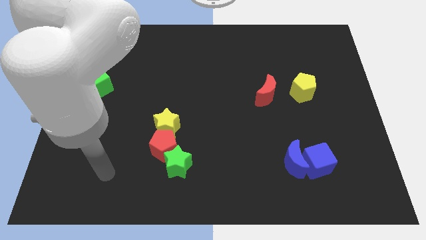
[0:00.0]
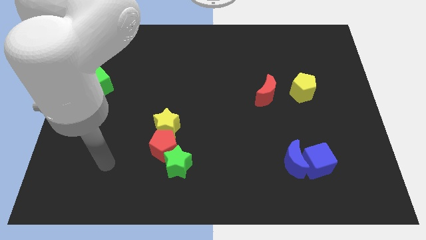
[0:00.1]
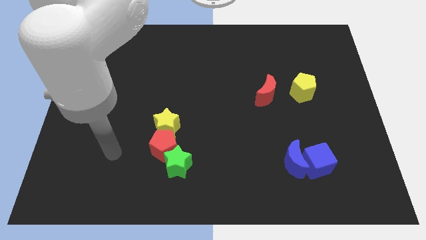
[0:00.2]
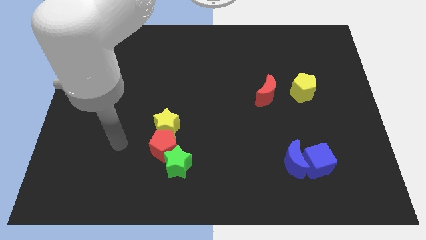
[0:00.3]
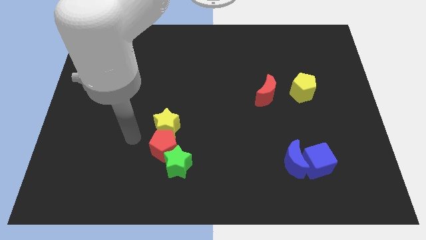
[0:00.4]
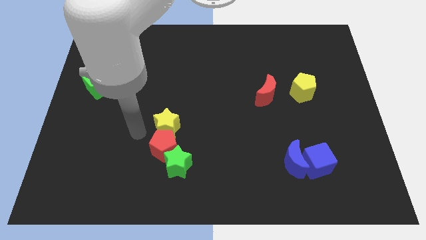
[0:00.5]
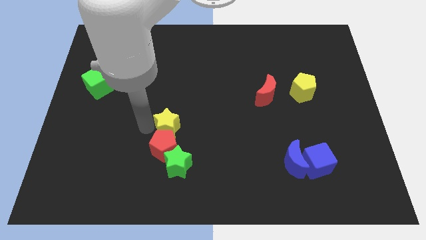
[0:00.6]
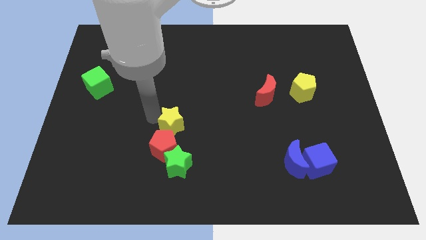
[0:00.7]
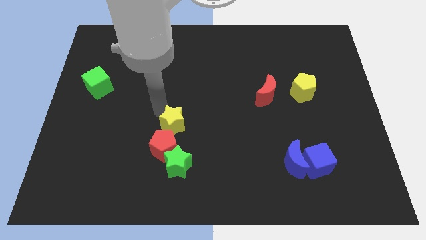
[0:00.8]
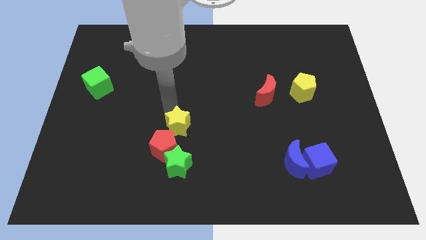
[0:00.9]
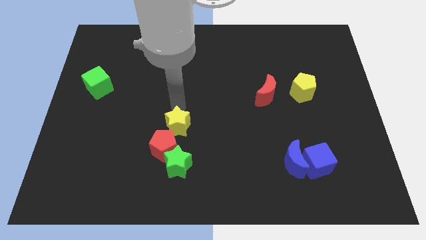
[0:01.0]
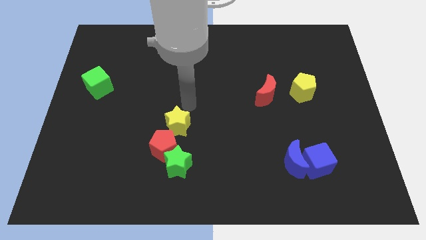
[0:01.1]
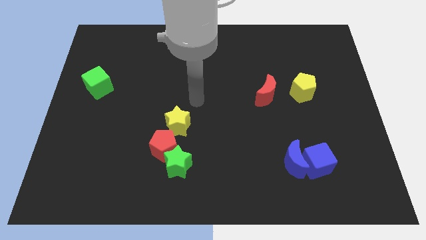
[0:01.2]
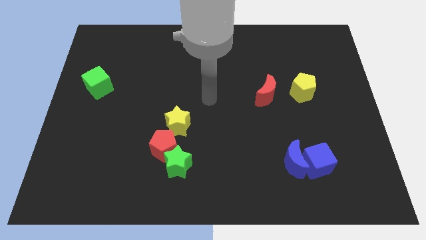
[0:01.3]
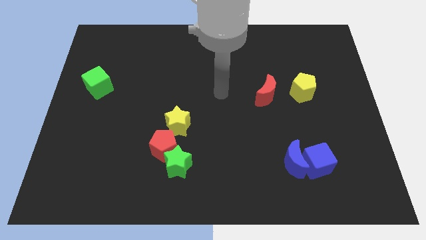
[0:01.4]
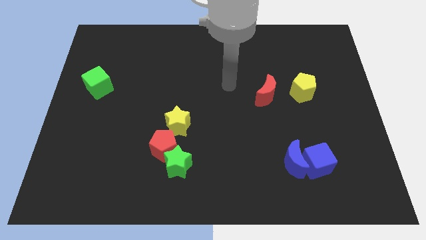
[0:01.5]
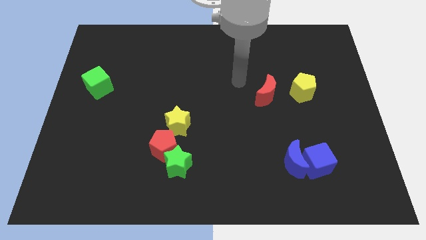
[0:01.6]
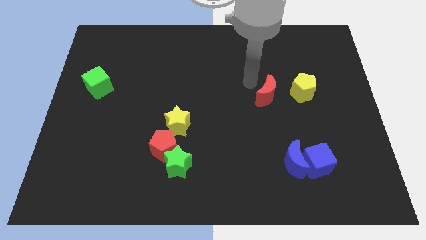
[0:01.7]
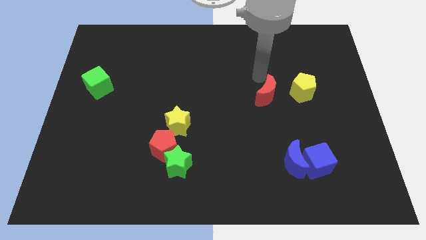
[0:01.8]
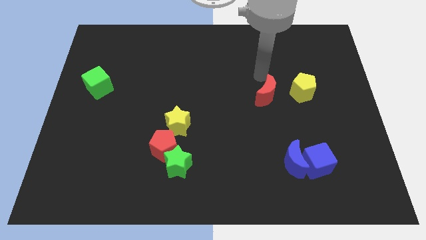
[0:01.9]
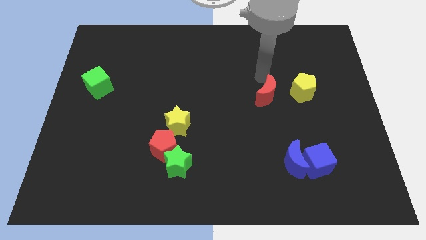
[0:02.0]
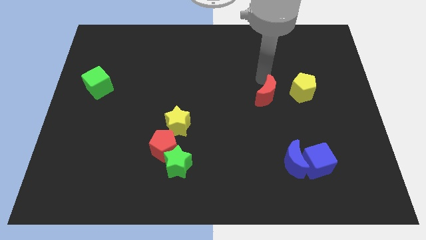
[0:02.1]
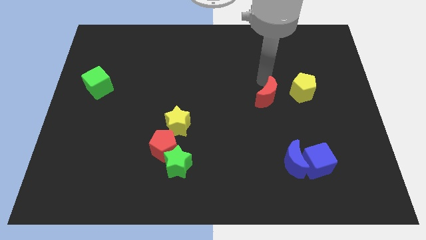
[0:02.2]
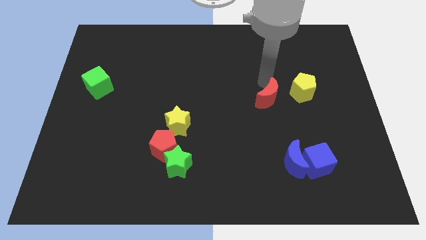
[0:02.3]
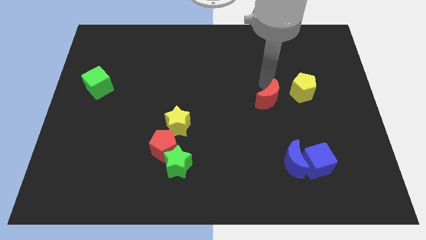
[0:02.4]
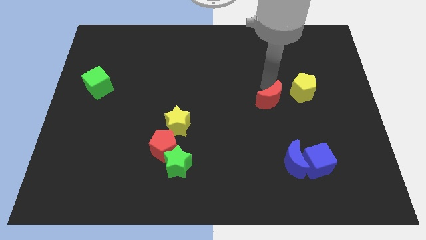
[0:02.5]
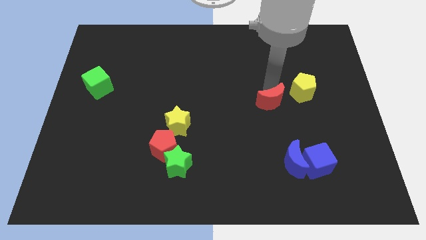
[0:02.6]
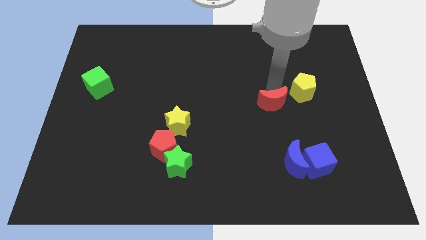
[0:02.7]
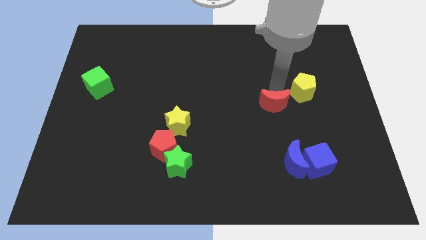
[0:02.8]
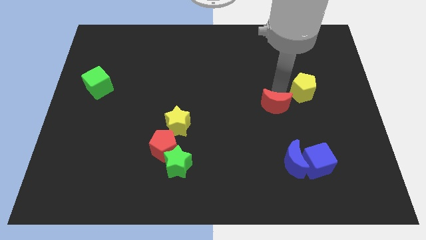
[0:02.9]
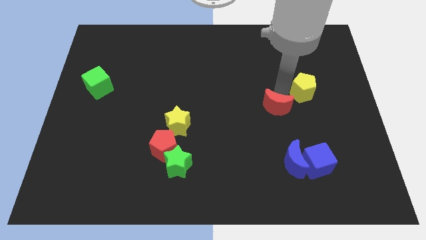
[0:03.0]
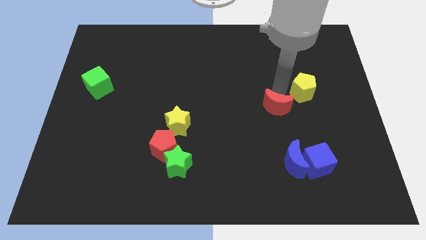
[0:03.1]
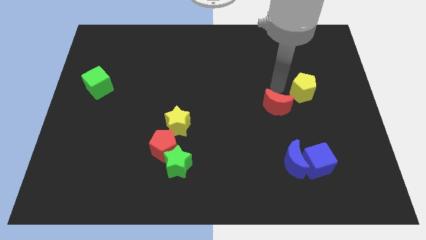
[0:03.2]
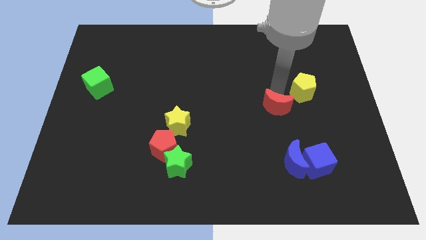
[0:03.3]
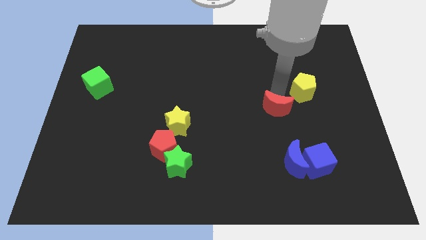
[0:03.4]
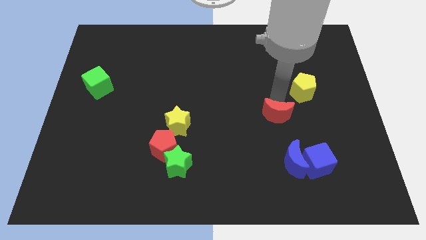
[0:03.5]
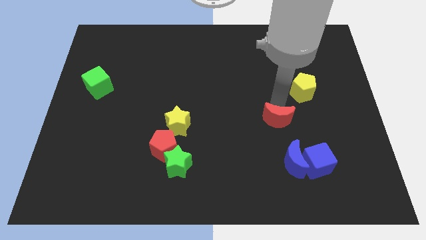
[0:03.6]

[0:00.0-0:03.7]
move the red moon a little bit down

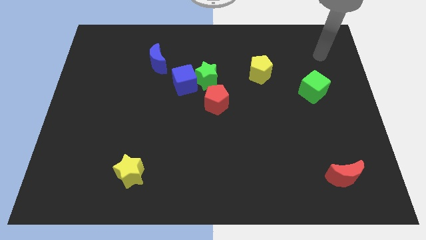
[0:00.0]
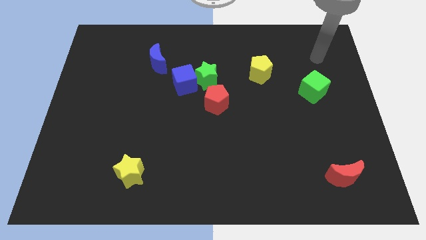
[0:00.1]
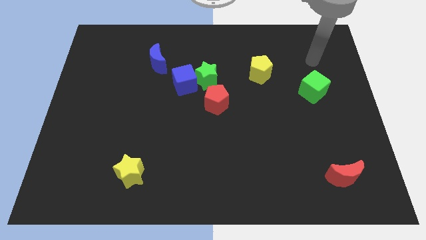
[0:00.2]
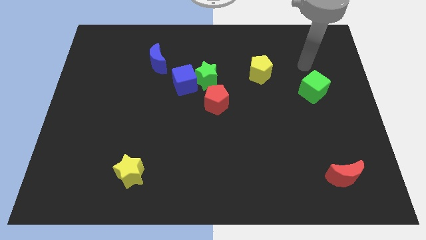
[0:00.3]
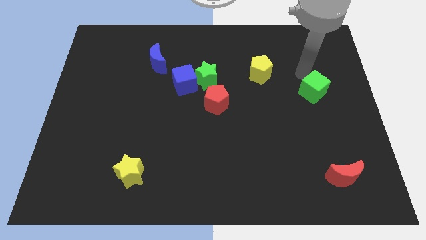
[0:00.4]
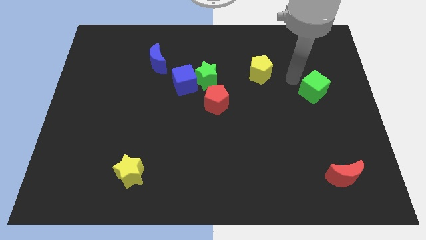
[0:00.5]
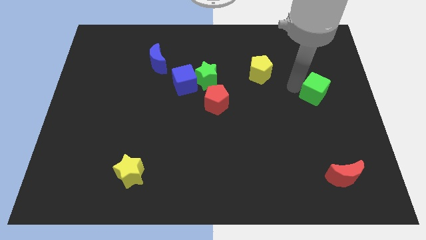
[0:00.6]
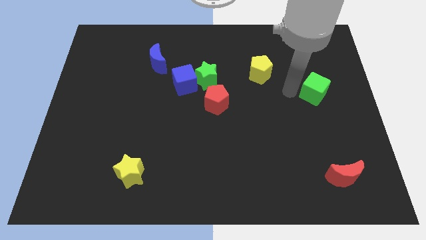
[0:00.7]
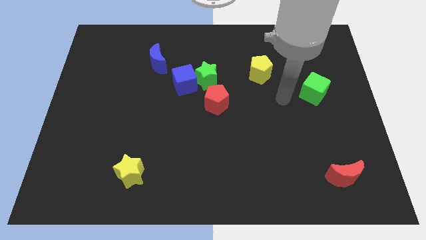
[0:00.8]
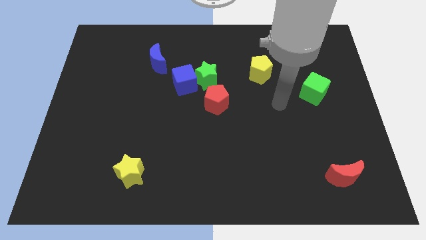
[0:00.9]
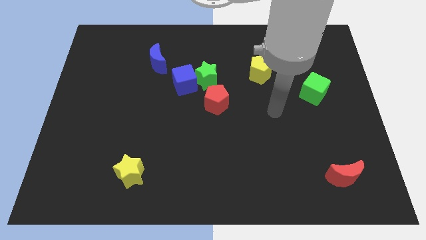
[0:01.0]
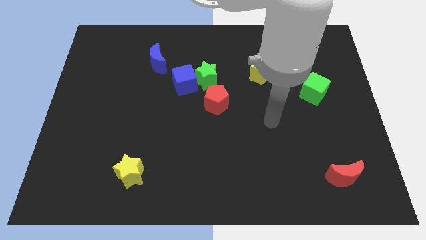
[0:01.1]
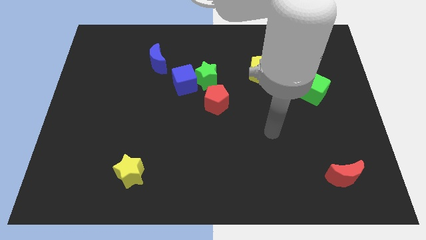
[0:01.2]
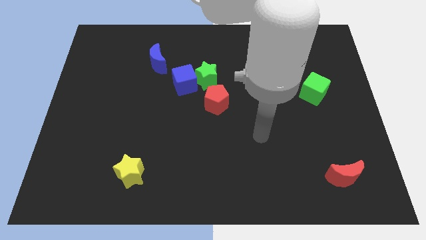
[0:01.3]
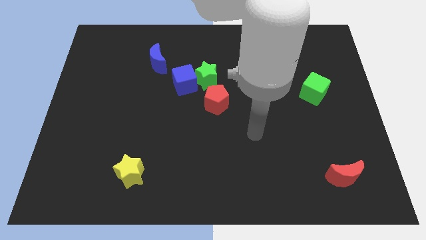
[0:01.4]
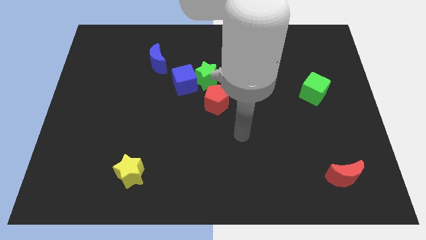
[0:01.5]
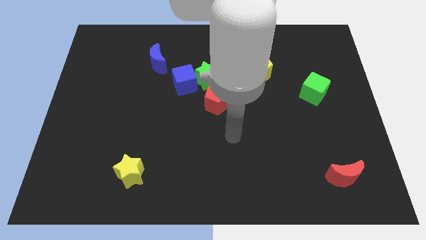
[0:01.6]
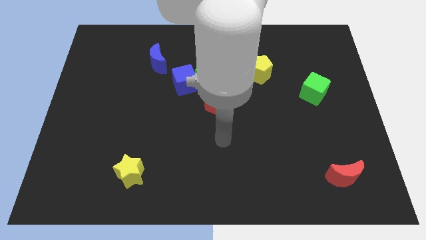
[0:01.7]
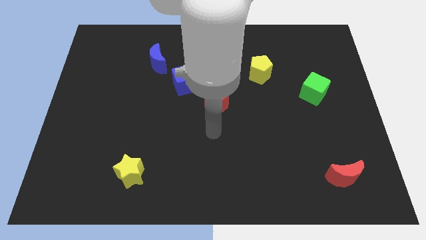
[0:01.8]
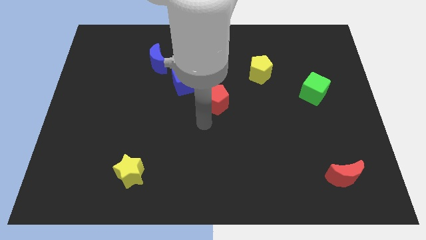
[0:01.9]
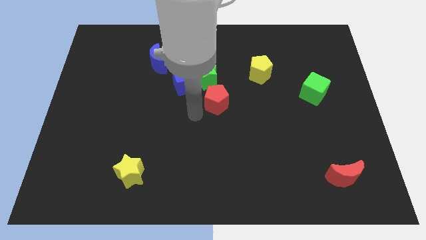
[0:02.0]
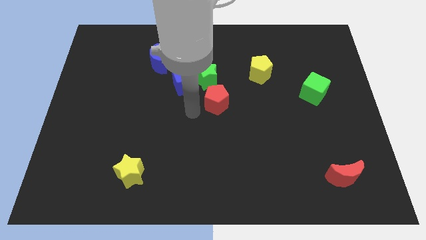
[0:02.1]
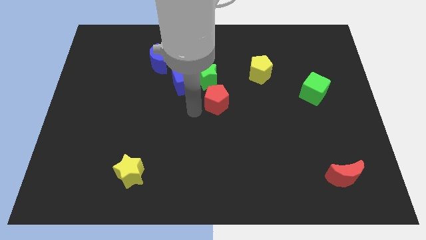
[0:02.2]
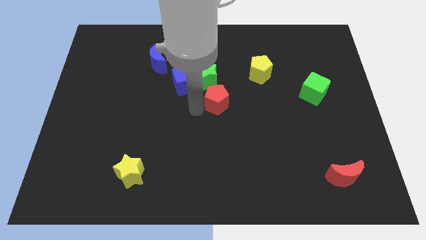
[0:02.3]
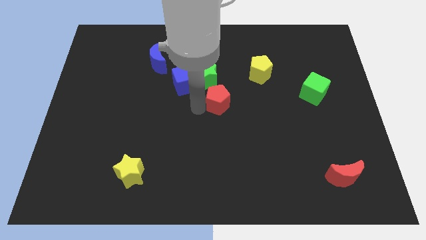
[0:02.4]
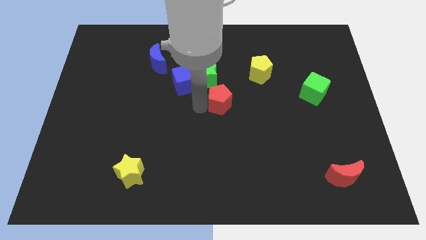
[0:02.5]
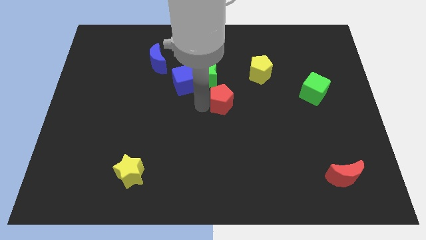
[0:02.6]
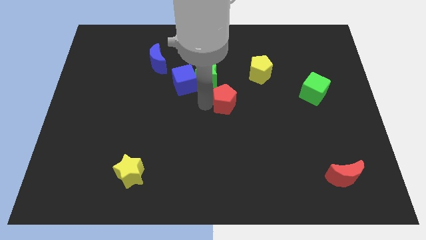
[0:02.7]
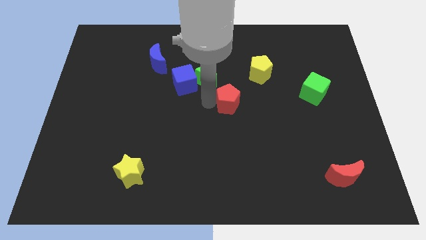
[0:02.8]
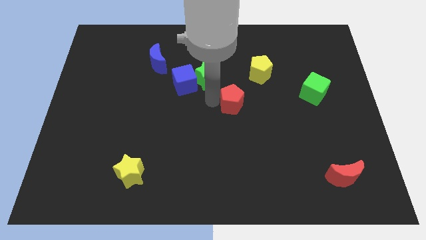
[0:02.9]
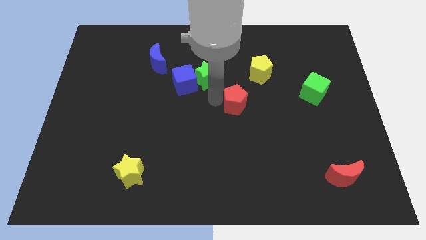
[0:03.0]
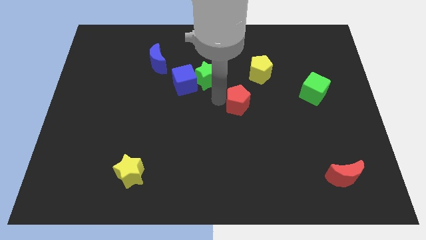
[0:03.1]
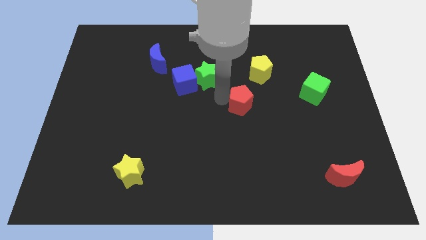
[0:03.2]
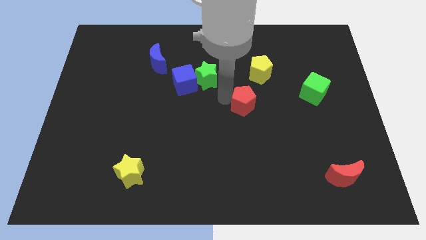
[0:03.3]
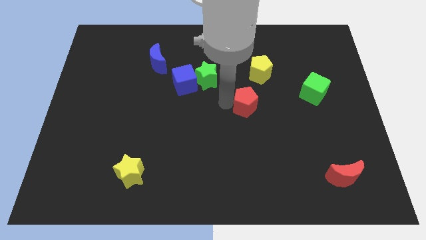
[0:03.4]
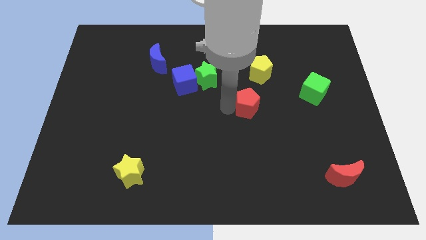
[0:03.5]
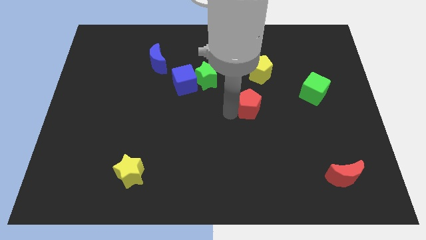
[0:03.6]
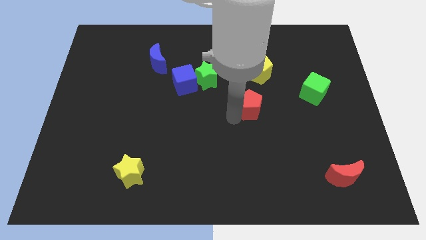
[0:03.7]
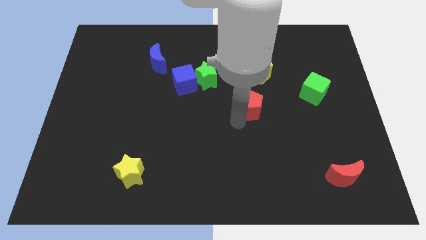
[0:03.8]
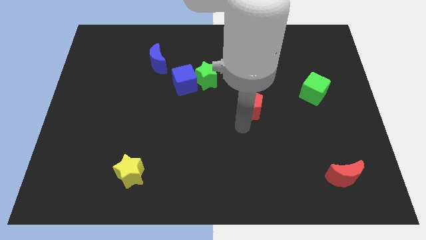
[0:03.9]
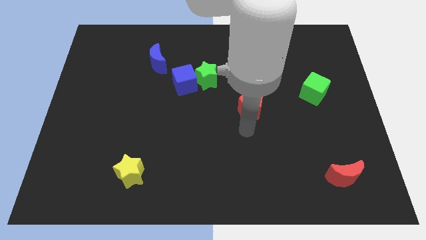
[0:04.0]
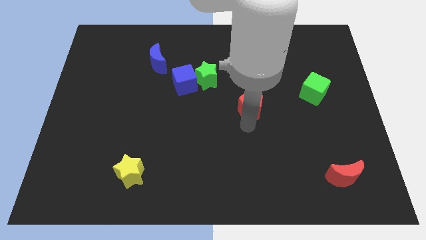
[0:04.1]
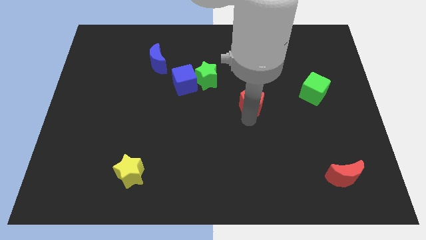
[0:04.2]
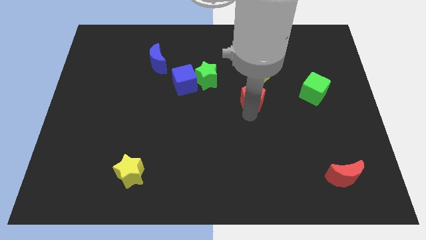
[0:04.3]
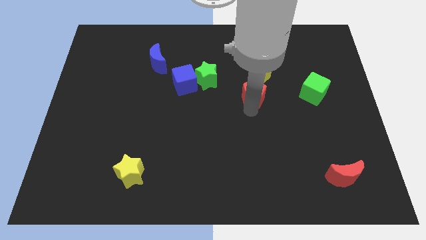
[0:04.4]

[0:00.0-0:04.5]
push the red pentagon diagonally upwards and right somewhat
